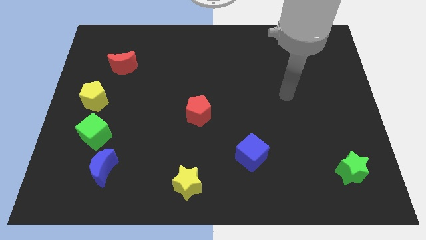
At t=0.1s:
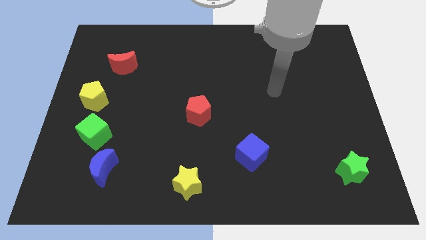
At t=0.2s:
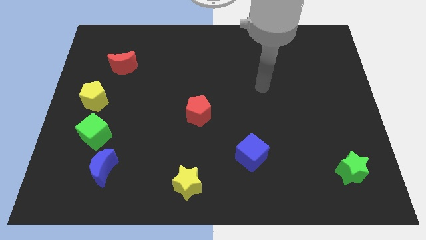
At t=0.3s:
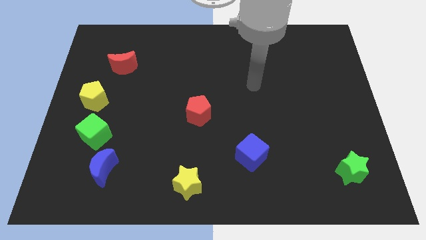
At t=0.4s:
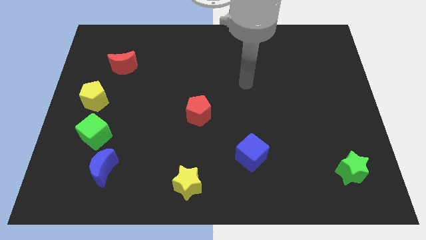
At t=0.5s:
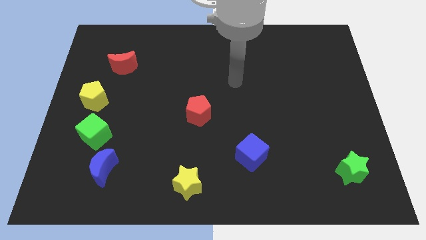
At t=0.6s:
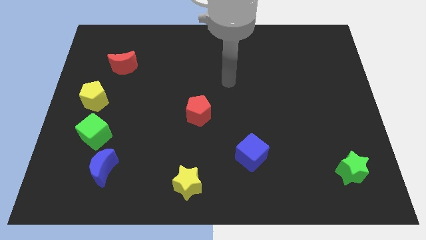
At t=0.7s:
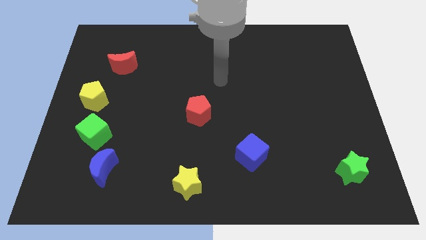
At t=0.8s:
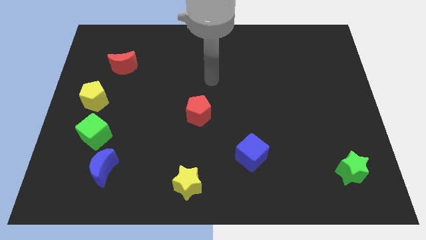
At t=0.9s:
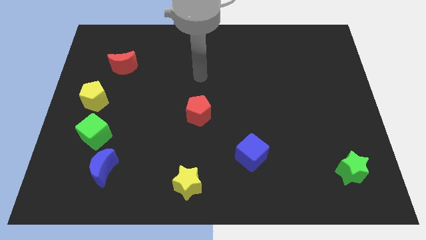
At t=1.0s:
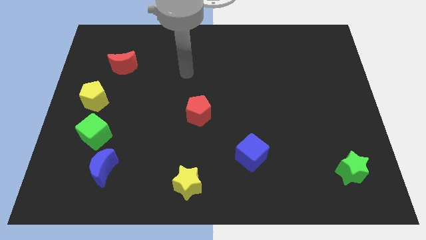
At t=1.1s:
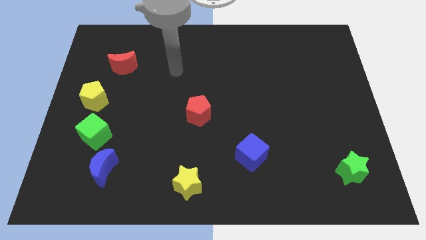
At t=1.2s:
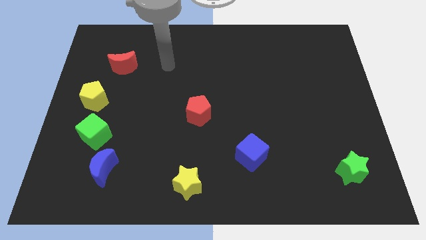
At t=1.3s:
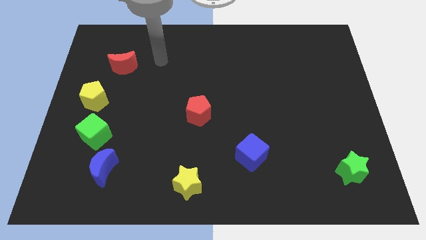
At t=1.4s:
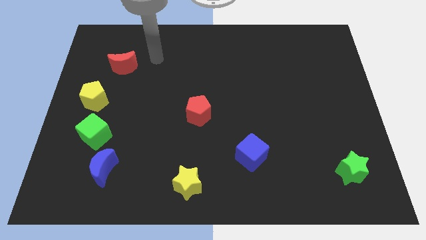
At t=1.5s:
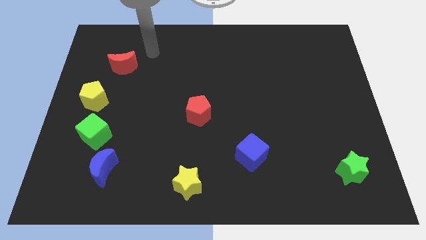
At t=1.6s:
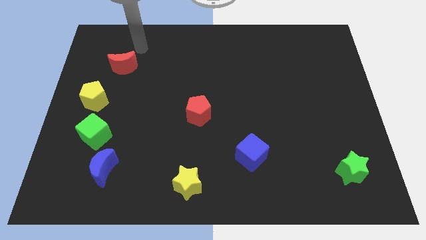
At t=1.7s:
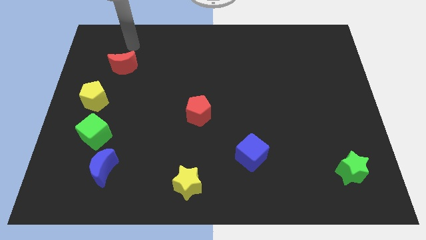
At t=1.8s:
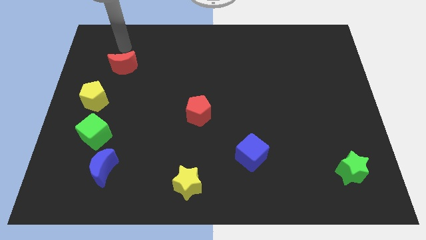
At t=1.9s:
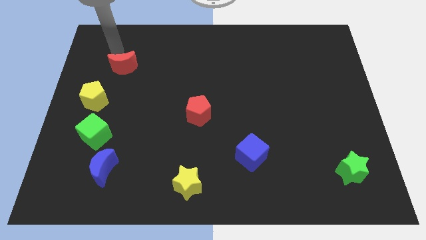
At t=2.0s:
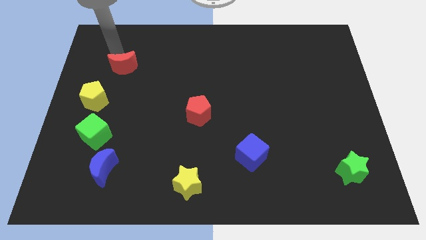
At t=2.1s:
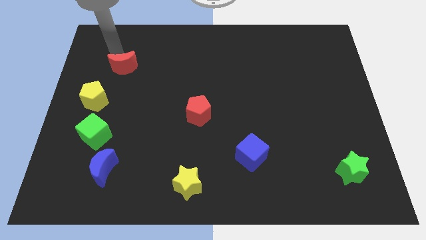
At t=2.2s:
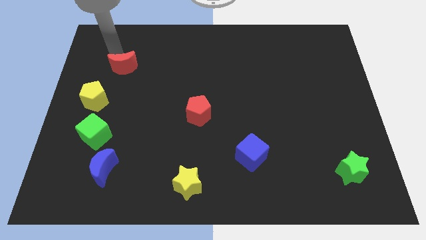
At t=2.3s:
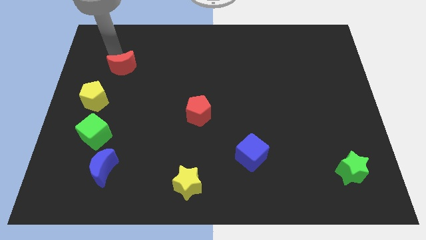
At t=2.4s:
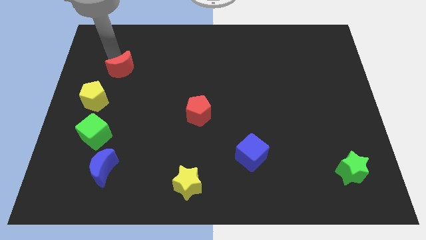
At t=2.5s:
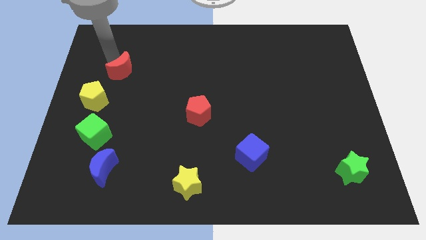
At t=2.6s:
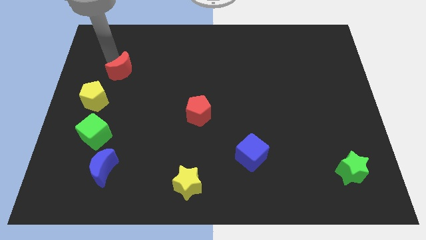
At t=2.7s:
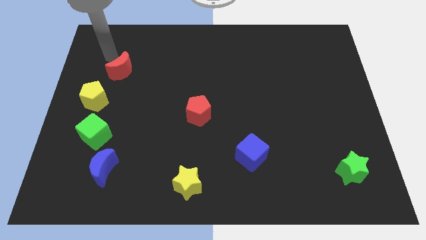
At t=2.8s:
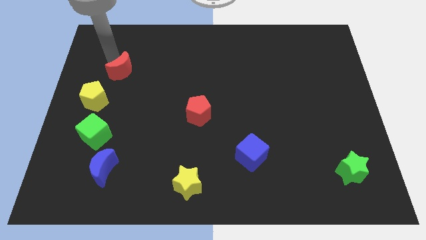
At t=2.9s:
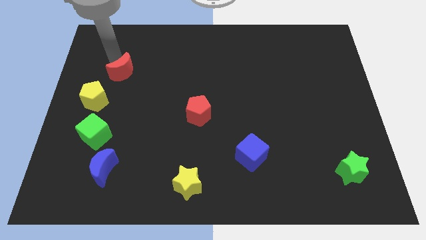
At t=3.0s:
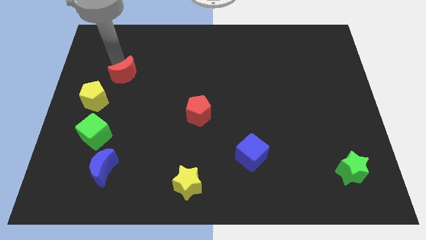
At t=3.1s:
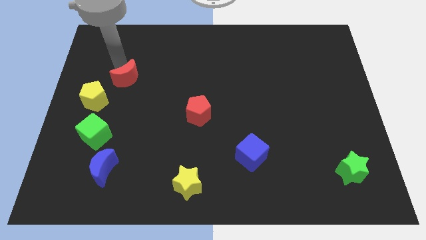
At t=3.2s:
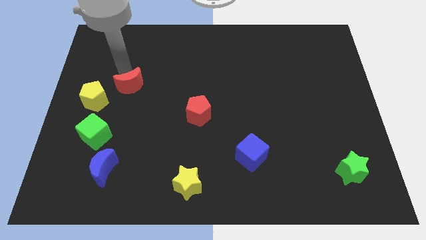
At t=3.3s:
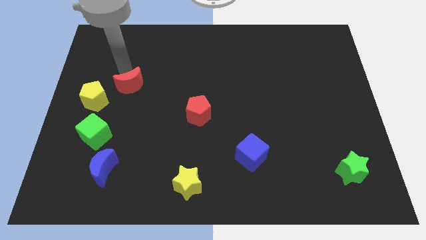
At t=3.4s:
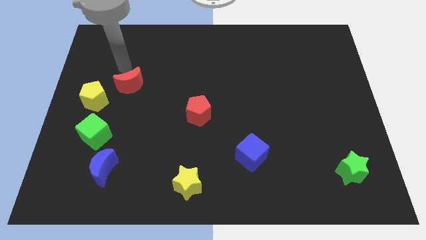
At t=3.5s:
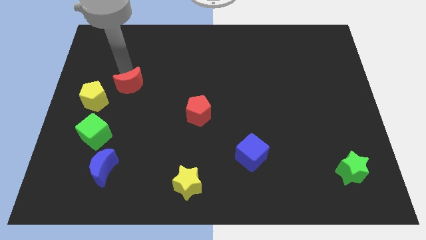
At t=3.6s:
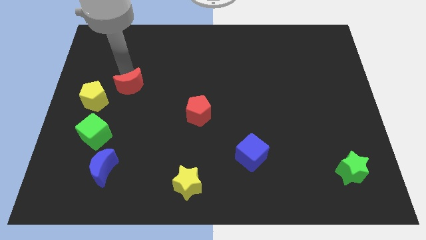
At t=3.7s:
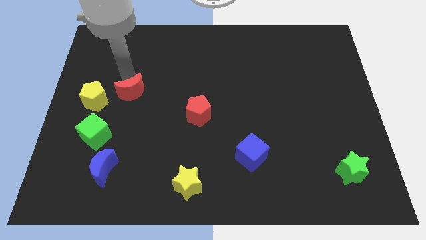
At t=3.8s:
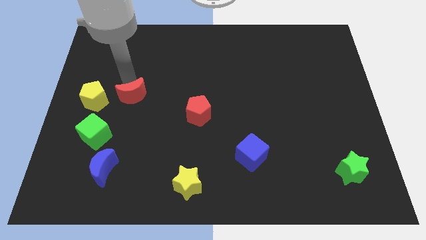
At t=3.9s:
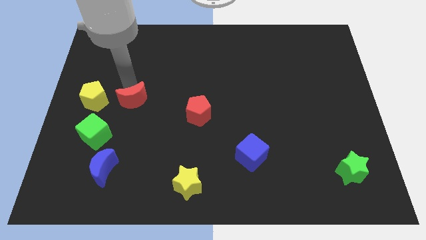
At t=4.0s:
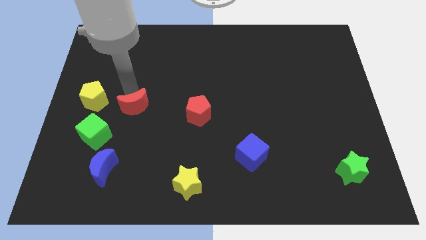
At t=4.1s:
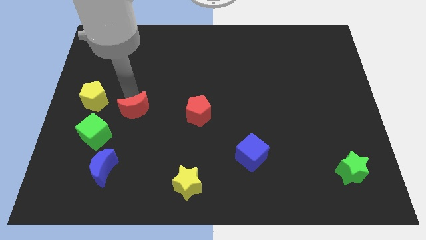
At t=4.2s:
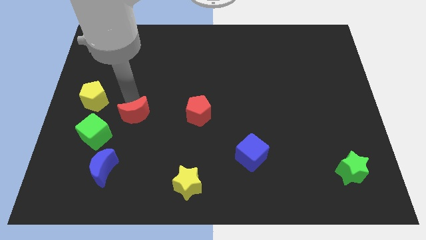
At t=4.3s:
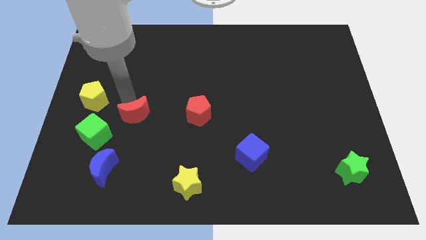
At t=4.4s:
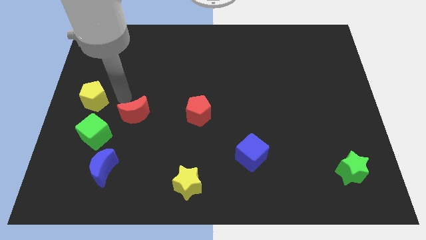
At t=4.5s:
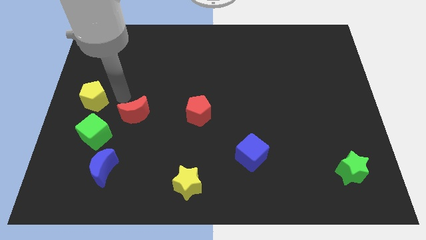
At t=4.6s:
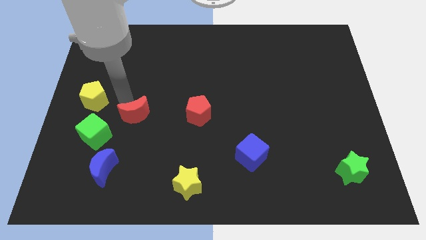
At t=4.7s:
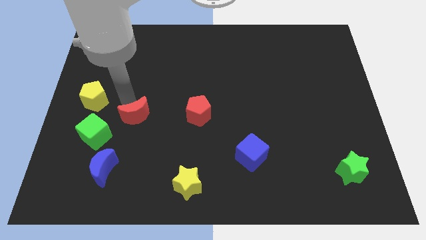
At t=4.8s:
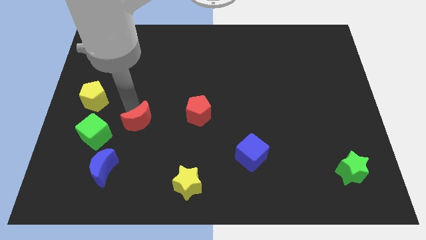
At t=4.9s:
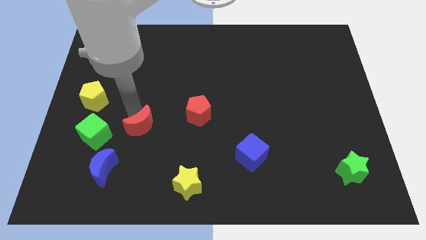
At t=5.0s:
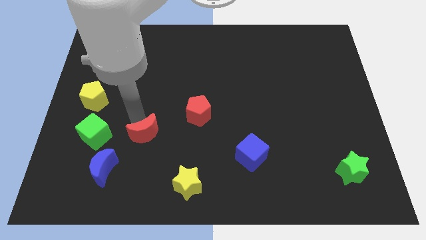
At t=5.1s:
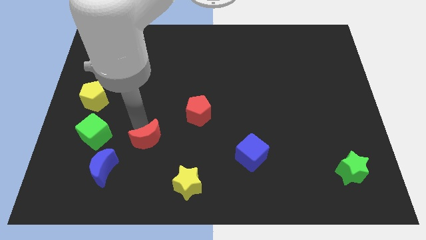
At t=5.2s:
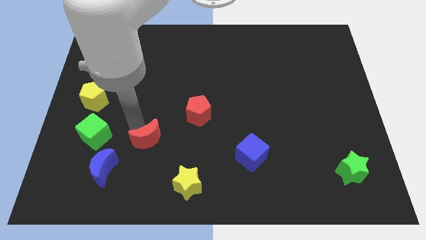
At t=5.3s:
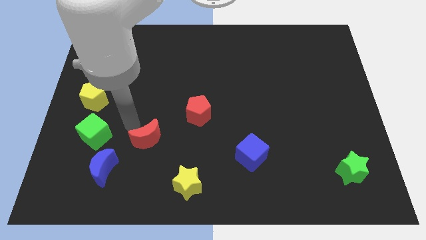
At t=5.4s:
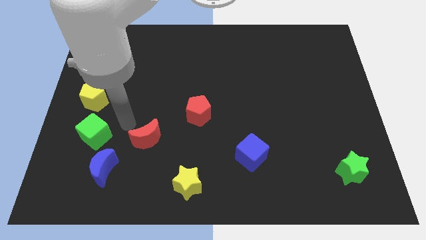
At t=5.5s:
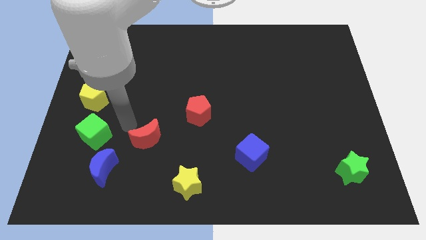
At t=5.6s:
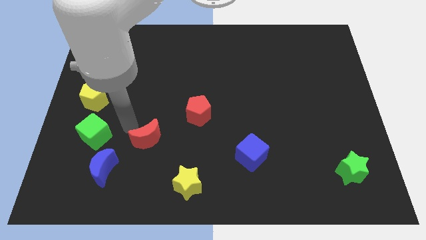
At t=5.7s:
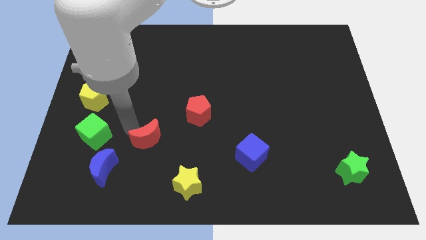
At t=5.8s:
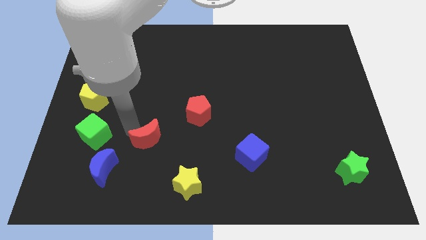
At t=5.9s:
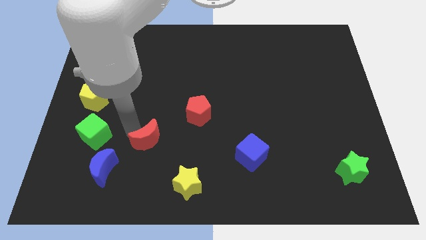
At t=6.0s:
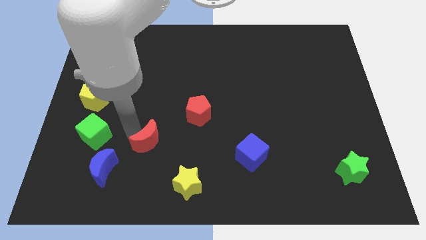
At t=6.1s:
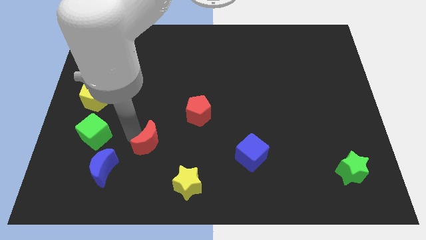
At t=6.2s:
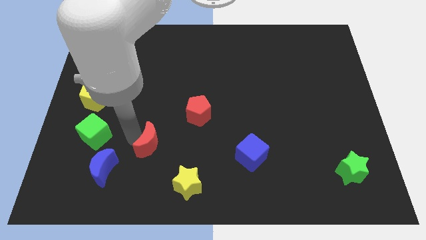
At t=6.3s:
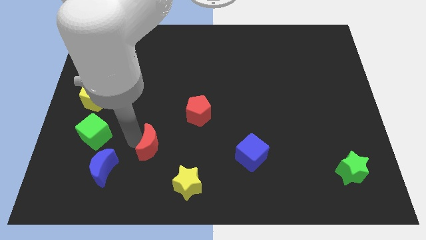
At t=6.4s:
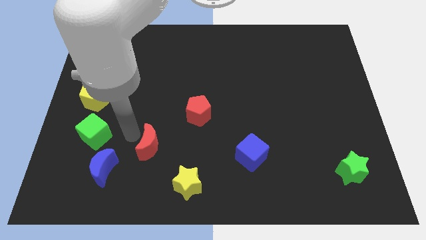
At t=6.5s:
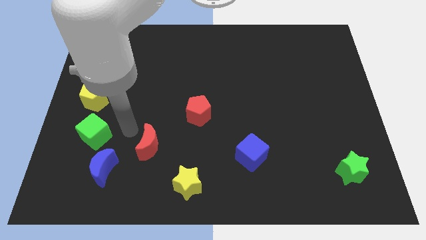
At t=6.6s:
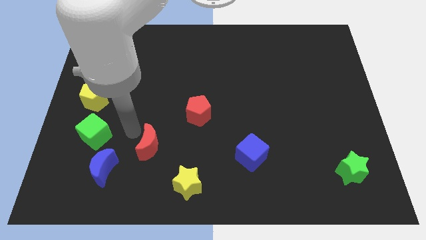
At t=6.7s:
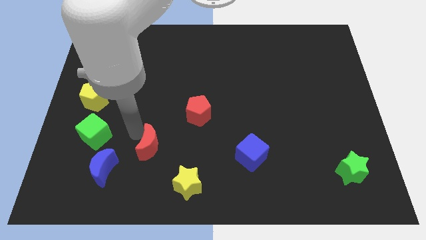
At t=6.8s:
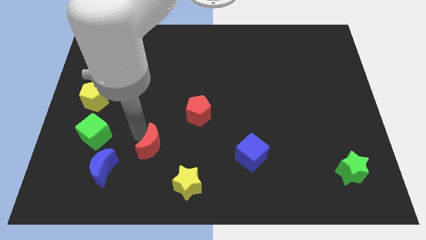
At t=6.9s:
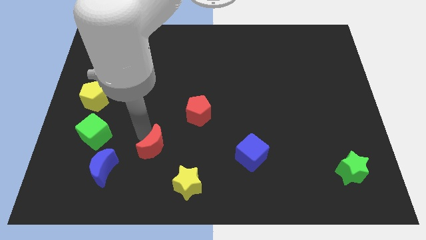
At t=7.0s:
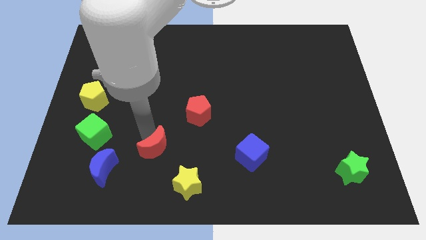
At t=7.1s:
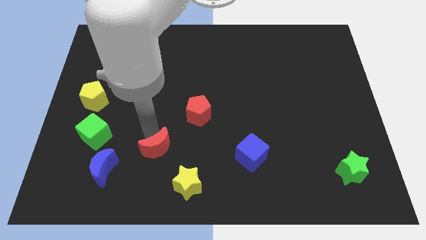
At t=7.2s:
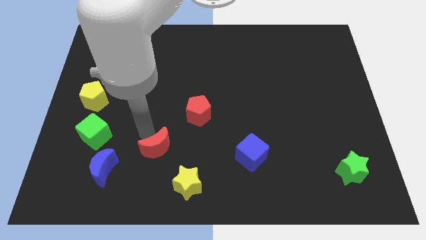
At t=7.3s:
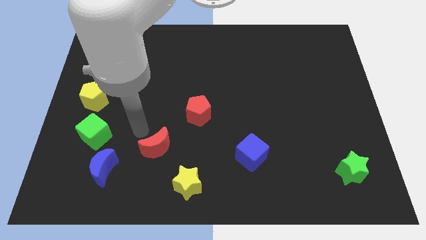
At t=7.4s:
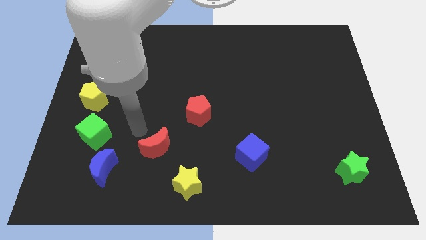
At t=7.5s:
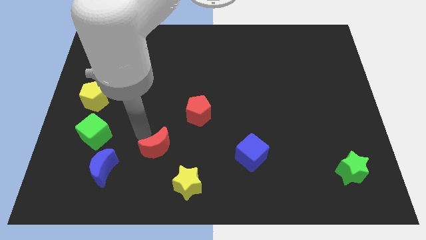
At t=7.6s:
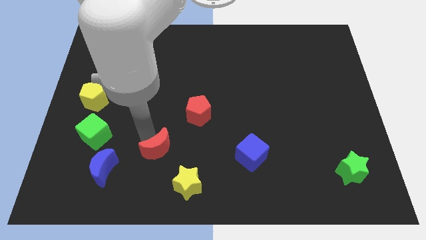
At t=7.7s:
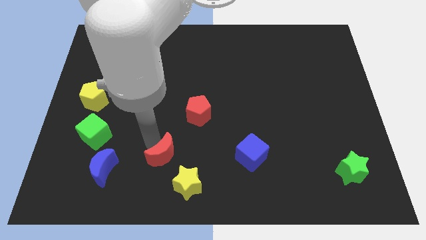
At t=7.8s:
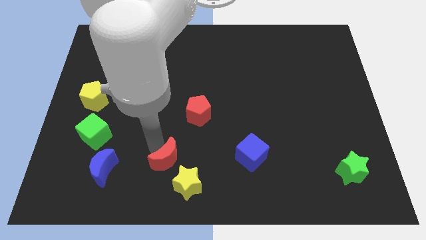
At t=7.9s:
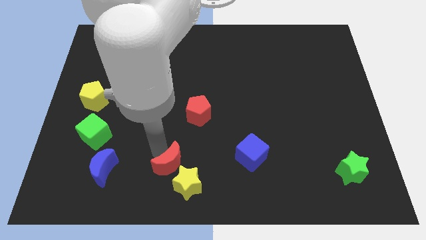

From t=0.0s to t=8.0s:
put the red moon towards the yellow star
